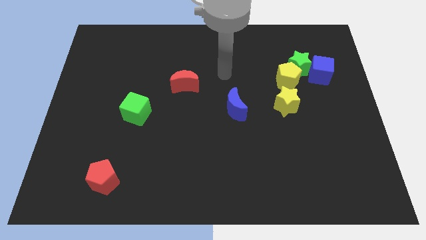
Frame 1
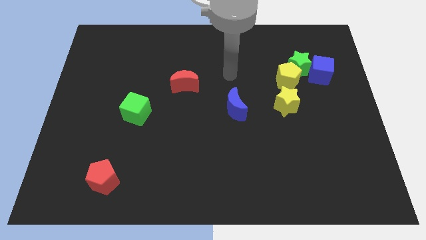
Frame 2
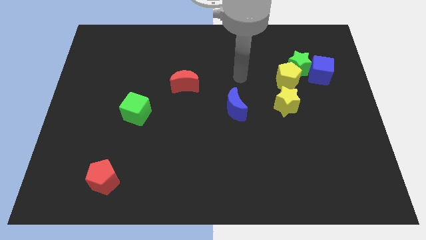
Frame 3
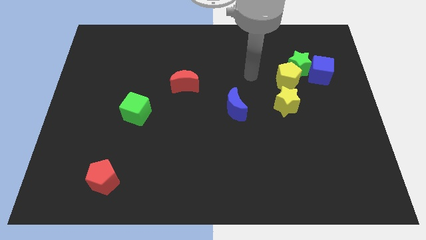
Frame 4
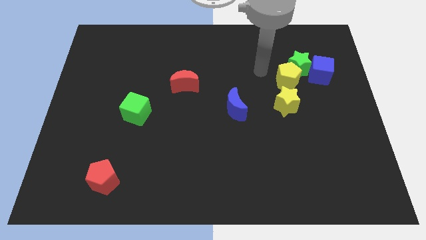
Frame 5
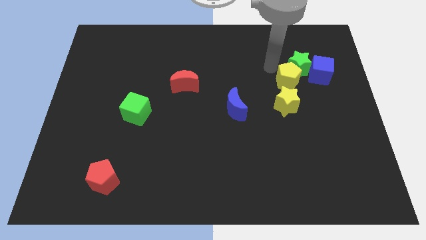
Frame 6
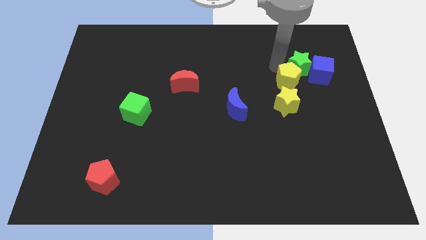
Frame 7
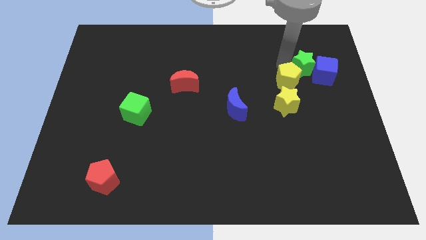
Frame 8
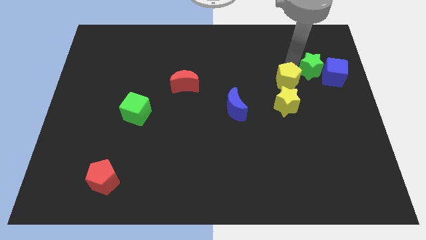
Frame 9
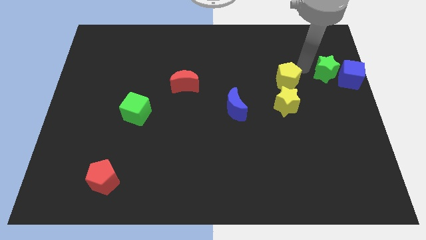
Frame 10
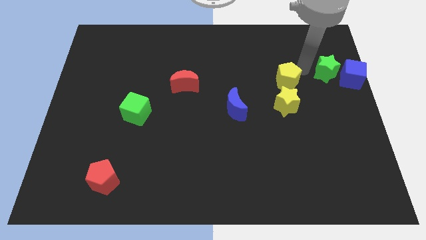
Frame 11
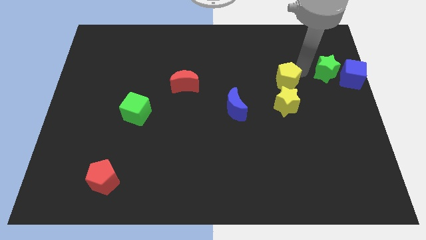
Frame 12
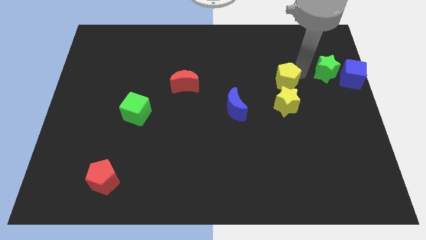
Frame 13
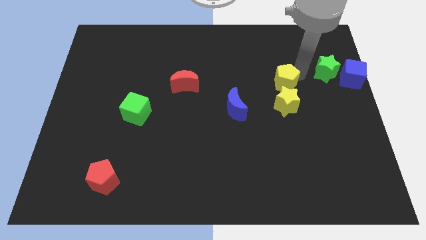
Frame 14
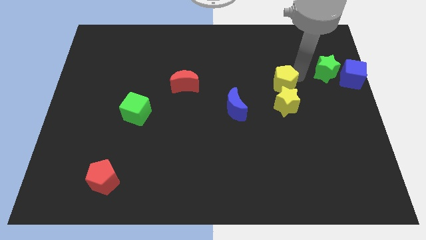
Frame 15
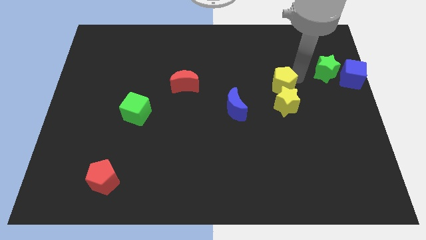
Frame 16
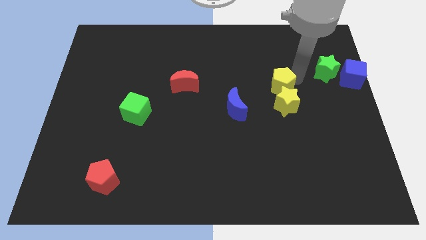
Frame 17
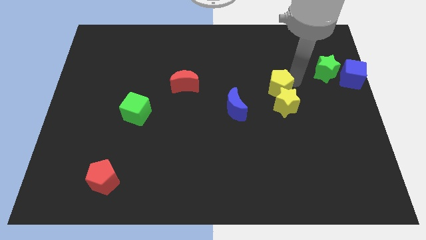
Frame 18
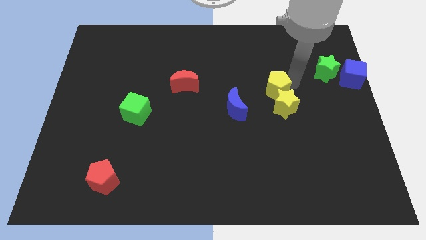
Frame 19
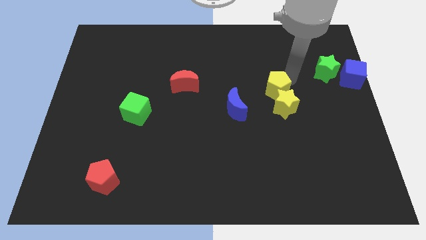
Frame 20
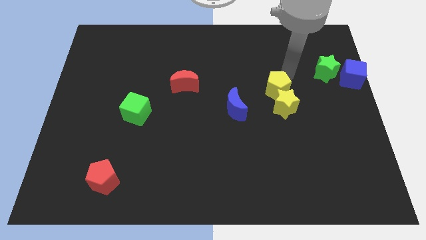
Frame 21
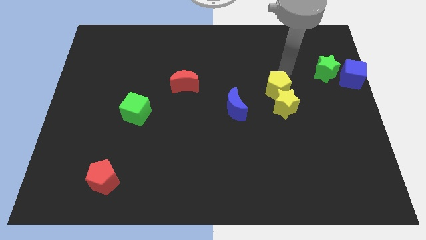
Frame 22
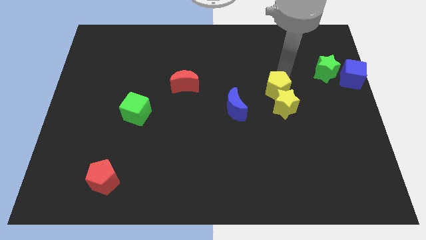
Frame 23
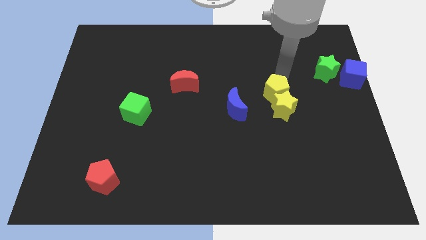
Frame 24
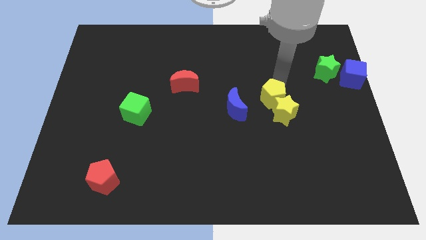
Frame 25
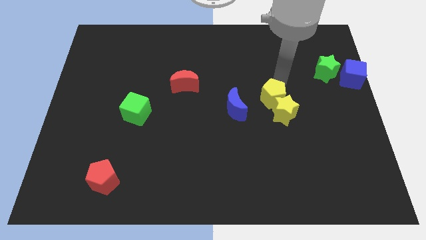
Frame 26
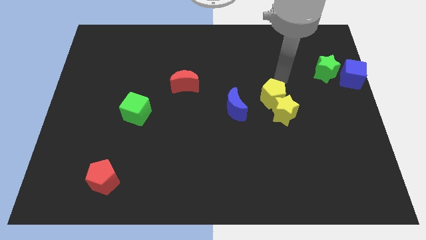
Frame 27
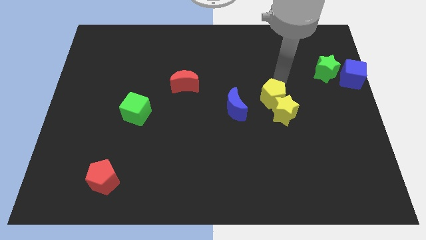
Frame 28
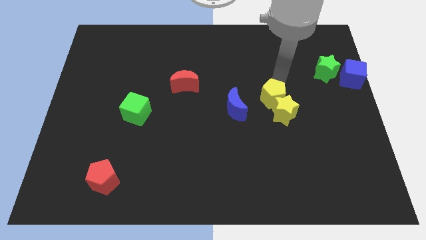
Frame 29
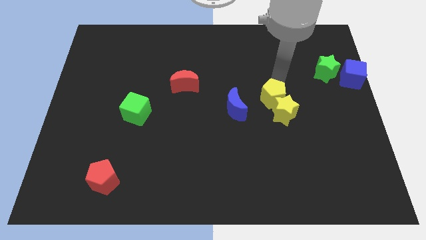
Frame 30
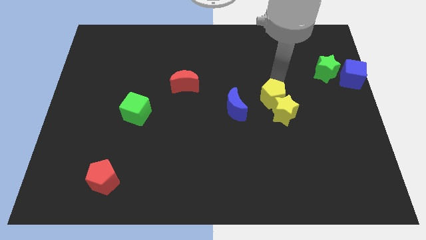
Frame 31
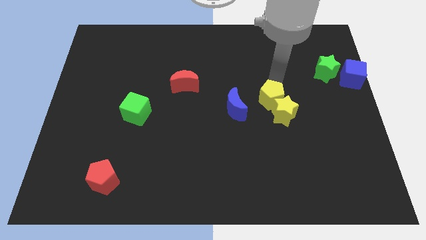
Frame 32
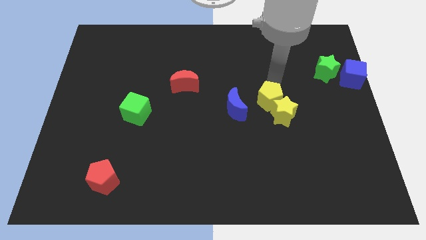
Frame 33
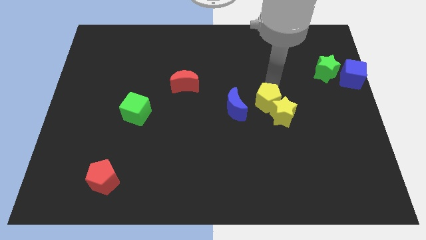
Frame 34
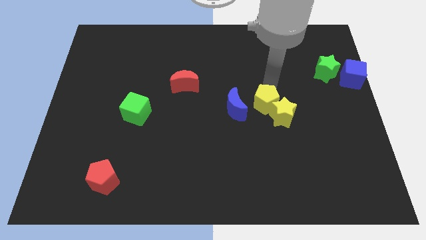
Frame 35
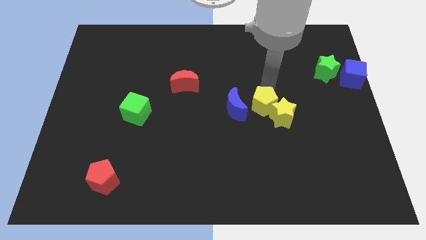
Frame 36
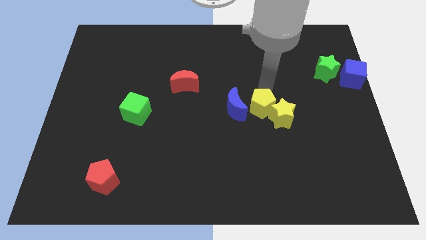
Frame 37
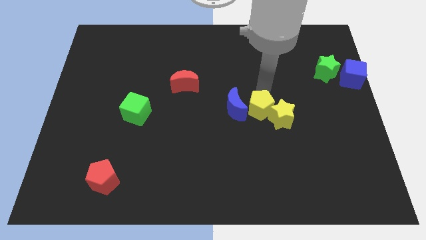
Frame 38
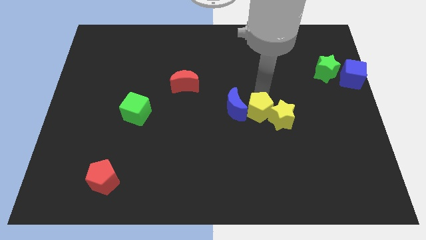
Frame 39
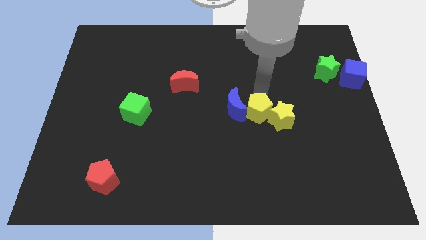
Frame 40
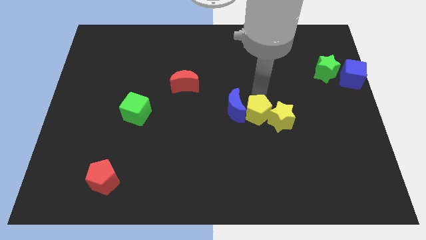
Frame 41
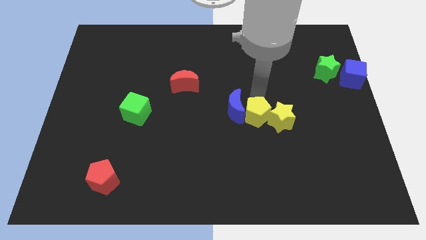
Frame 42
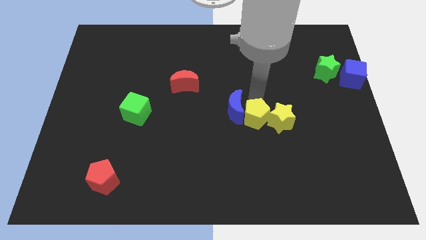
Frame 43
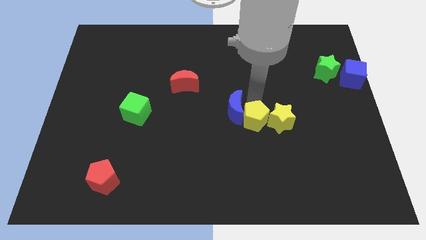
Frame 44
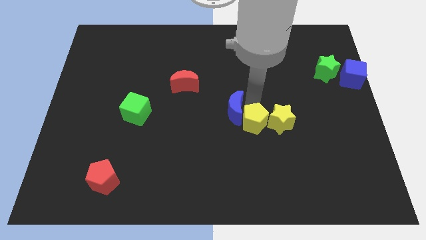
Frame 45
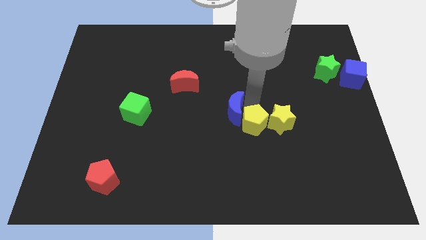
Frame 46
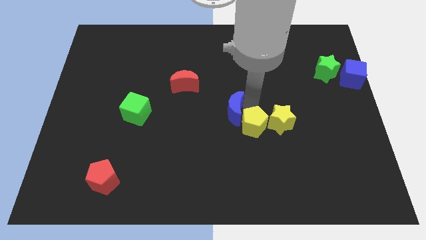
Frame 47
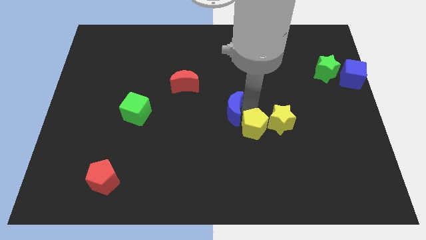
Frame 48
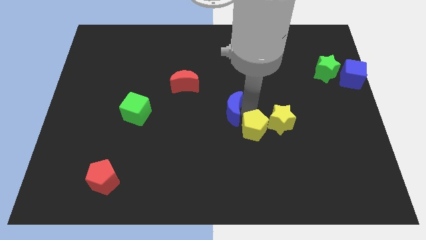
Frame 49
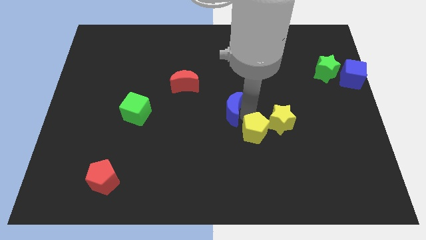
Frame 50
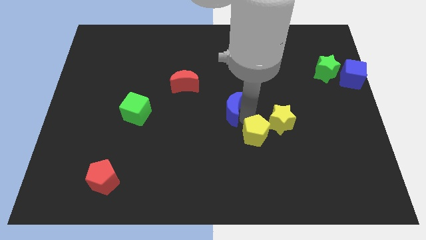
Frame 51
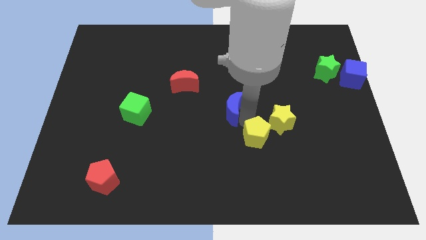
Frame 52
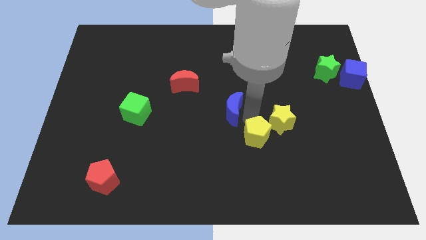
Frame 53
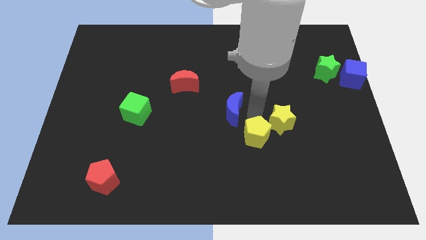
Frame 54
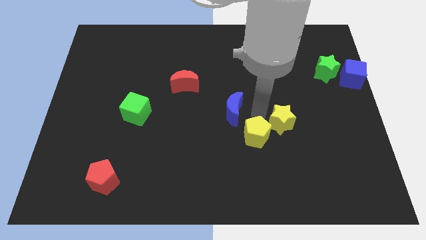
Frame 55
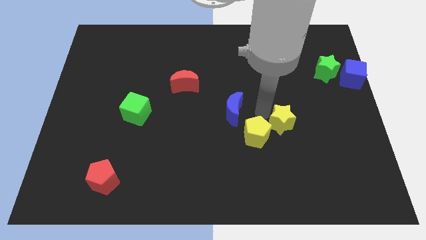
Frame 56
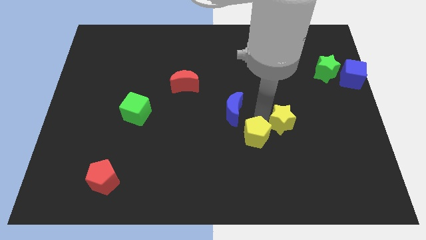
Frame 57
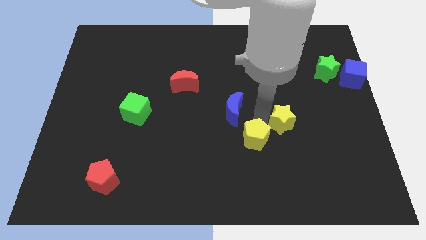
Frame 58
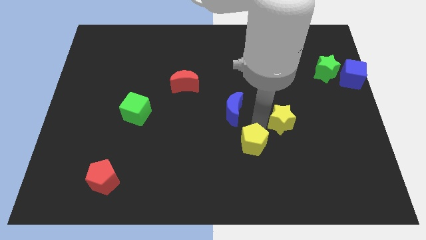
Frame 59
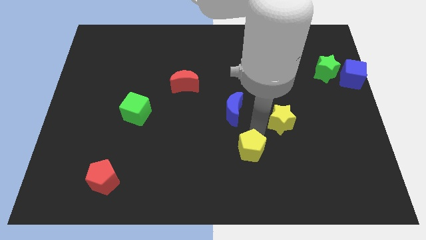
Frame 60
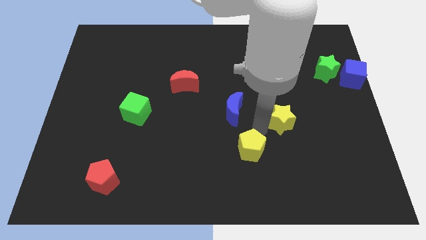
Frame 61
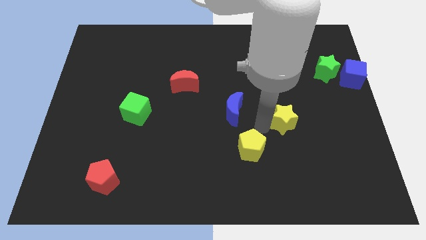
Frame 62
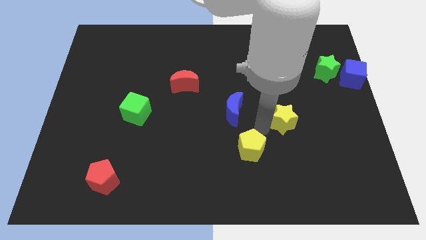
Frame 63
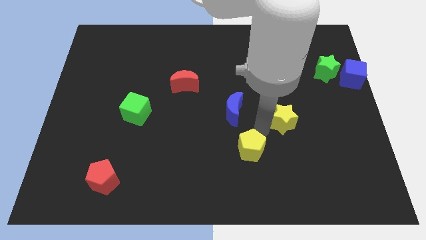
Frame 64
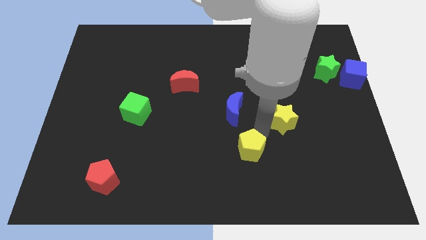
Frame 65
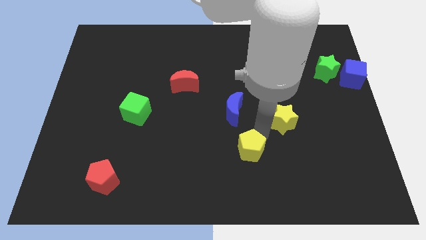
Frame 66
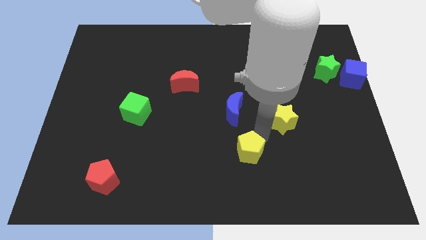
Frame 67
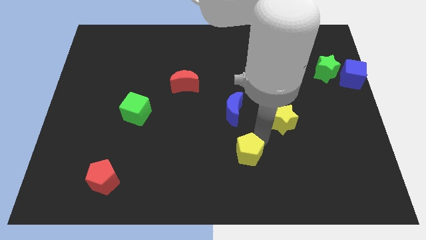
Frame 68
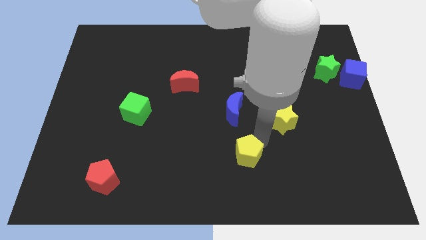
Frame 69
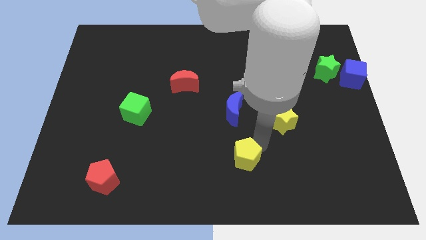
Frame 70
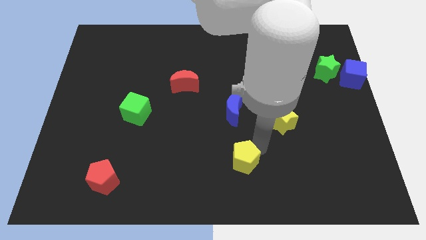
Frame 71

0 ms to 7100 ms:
push the yellow pentagon to the bottom

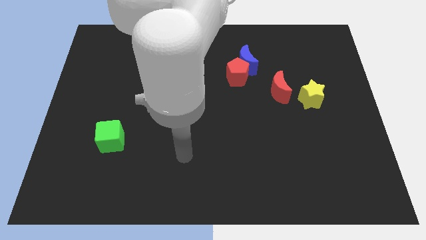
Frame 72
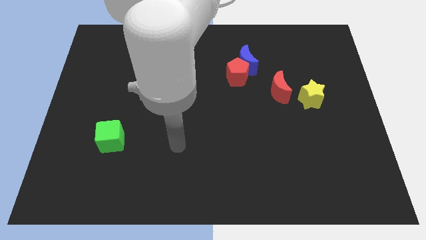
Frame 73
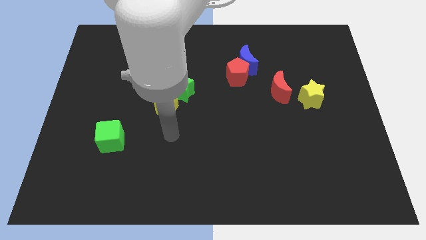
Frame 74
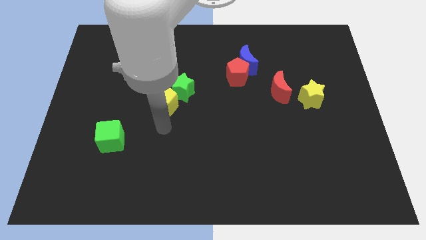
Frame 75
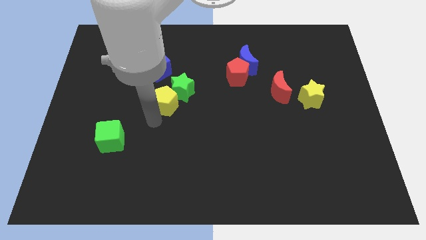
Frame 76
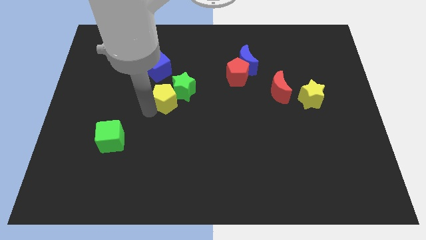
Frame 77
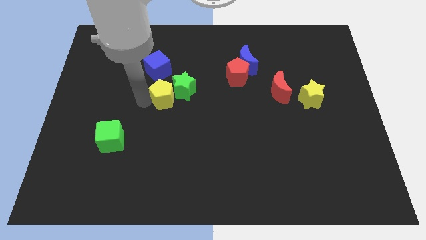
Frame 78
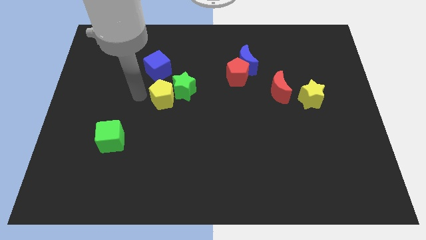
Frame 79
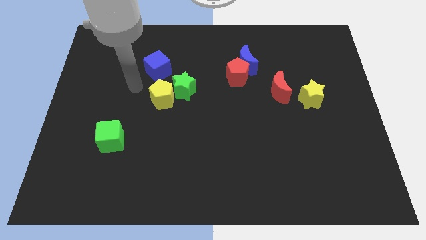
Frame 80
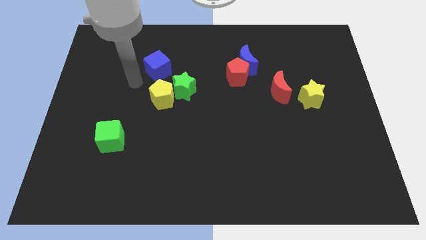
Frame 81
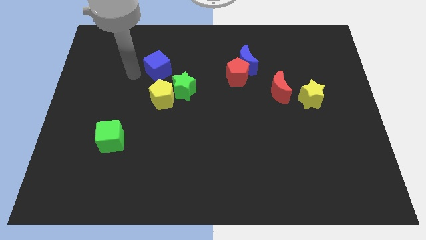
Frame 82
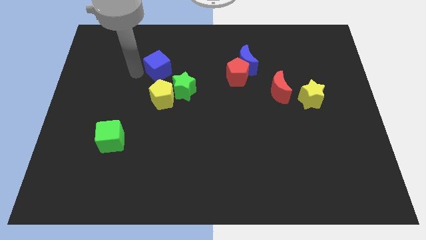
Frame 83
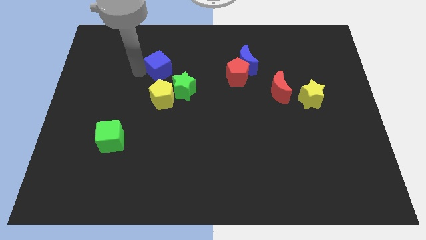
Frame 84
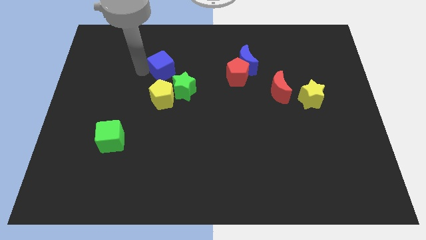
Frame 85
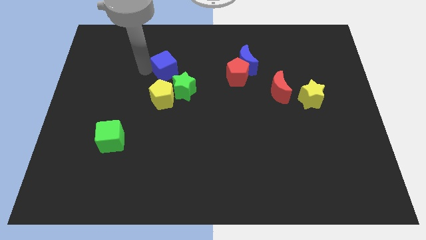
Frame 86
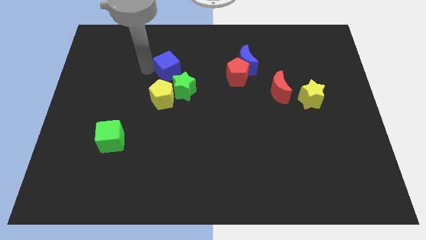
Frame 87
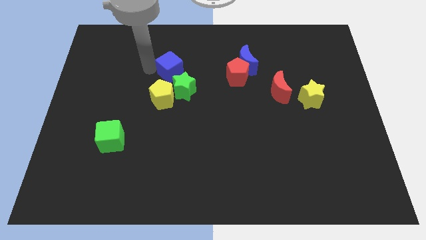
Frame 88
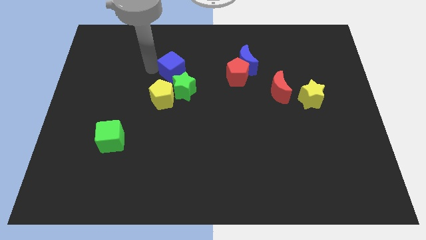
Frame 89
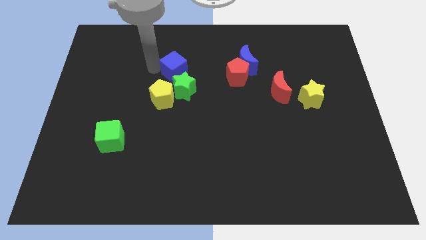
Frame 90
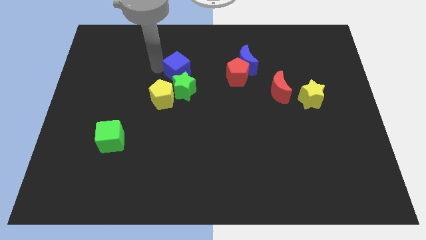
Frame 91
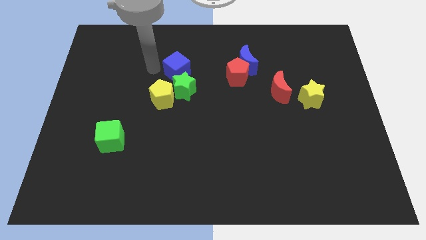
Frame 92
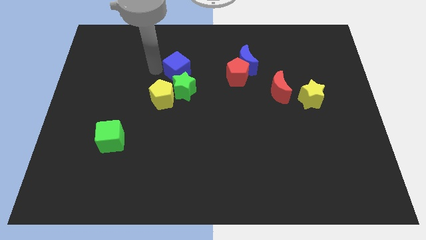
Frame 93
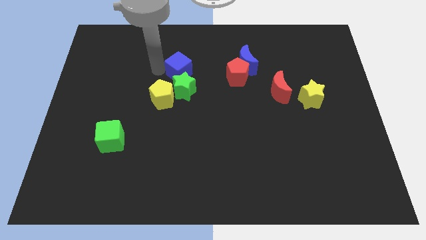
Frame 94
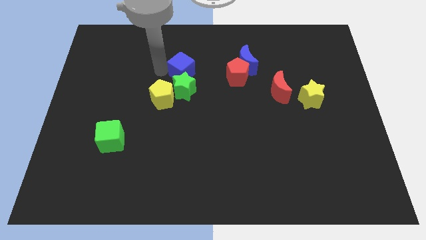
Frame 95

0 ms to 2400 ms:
slide the blue cube to the middle of the board
